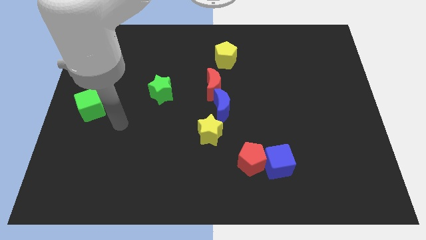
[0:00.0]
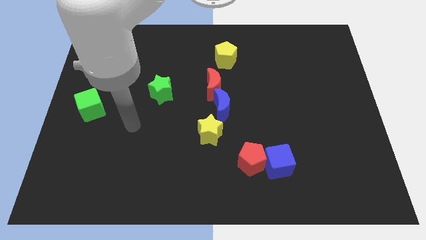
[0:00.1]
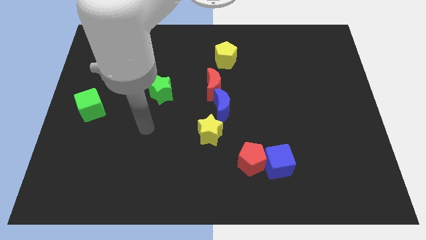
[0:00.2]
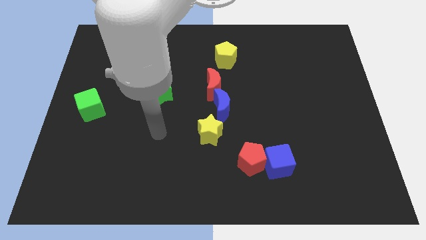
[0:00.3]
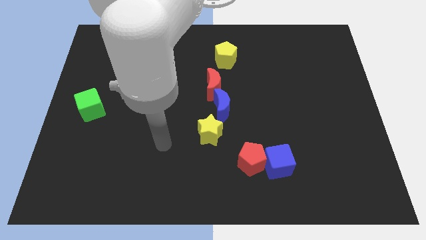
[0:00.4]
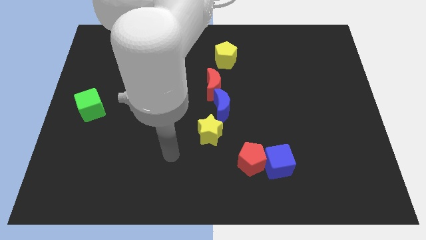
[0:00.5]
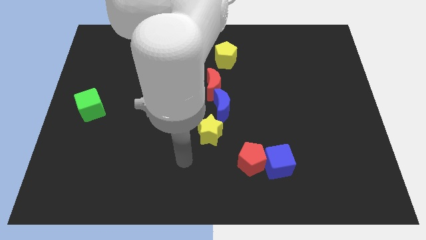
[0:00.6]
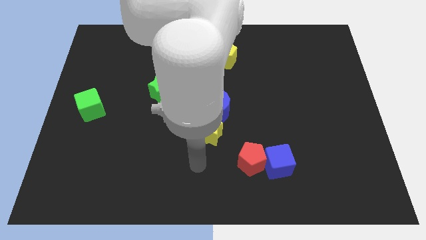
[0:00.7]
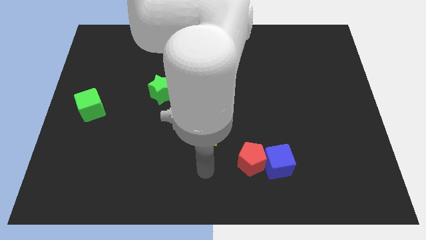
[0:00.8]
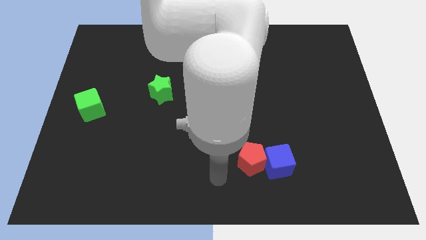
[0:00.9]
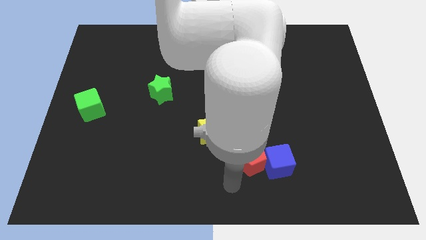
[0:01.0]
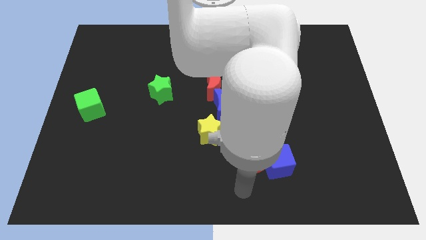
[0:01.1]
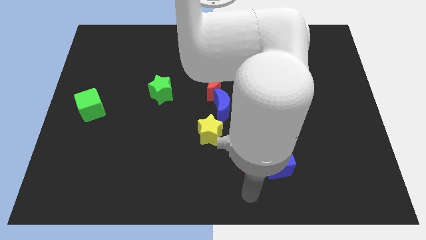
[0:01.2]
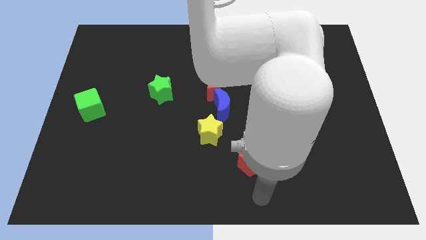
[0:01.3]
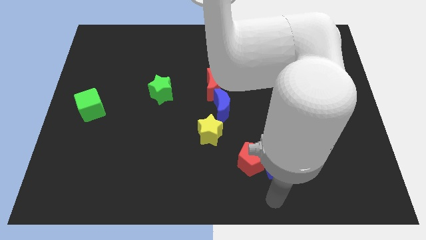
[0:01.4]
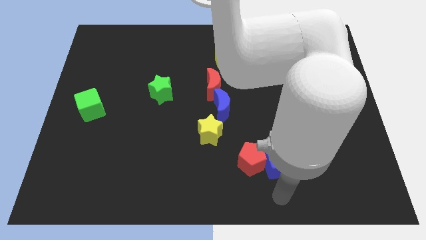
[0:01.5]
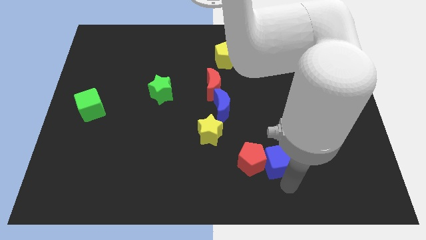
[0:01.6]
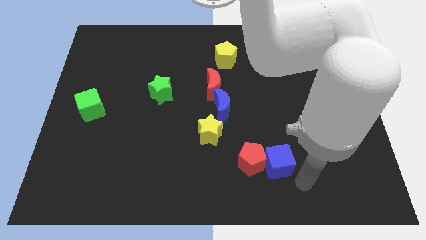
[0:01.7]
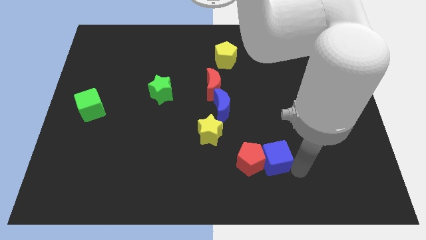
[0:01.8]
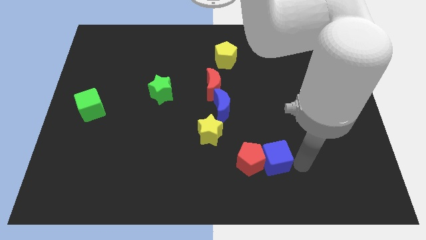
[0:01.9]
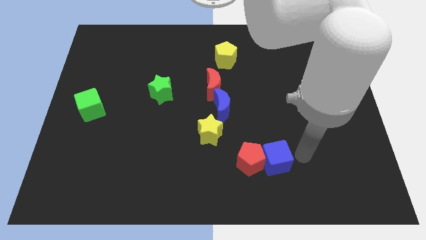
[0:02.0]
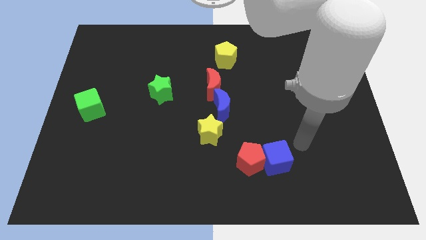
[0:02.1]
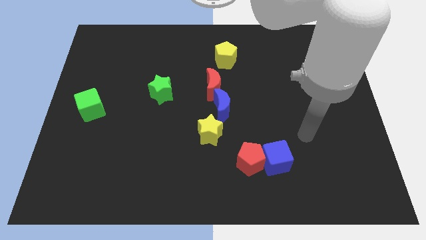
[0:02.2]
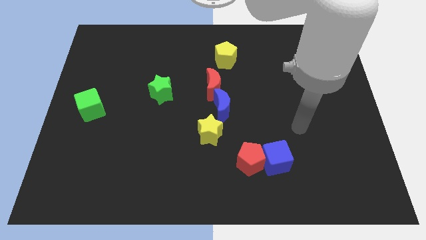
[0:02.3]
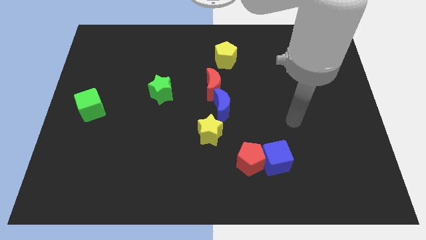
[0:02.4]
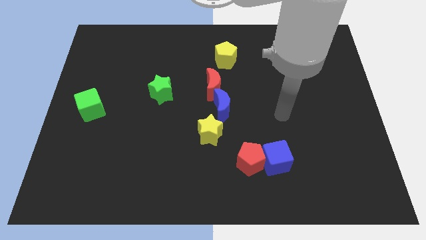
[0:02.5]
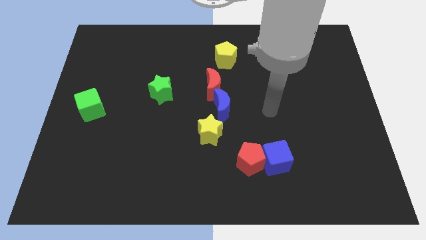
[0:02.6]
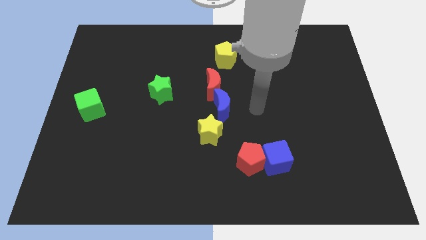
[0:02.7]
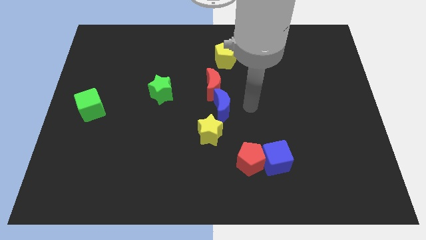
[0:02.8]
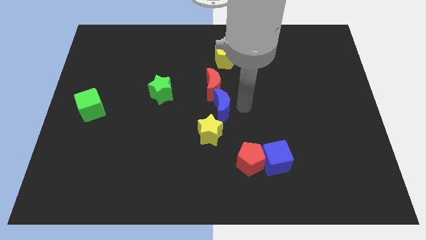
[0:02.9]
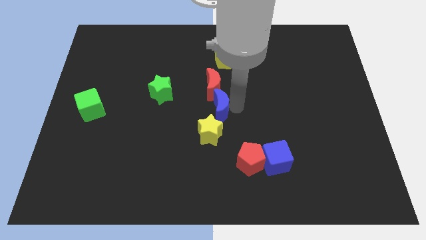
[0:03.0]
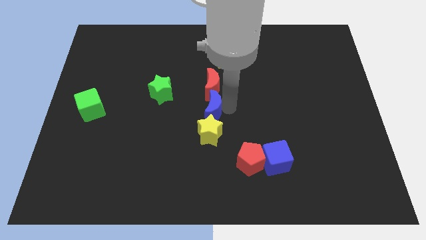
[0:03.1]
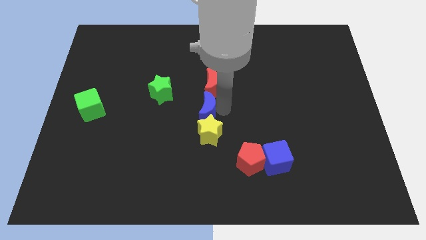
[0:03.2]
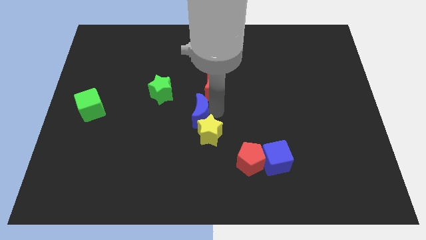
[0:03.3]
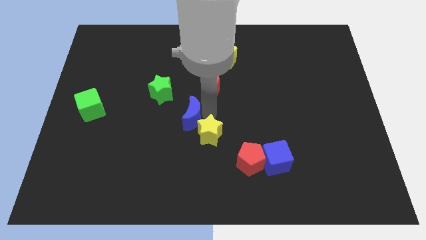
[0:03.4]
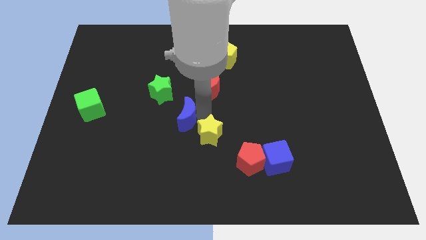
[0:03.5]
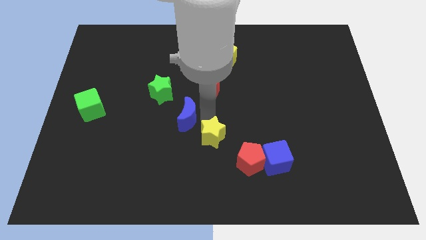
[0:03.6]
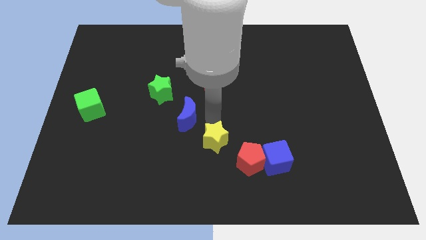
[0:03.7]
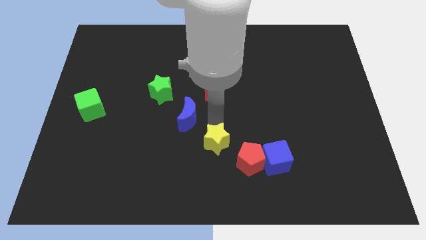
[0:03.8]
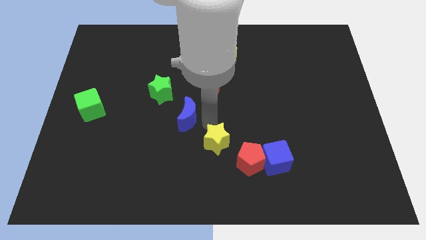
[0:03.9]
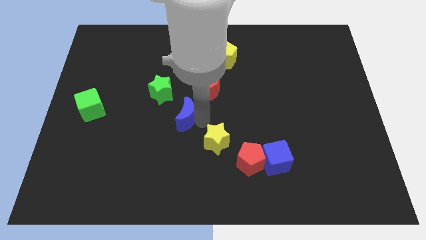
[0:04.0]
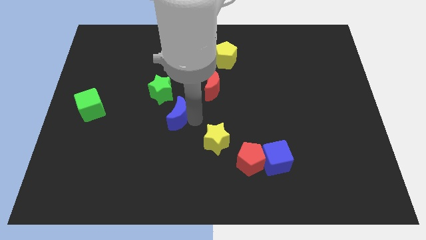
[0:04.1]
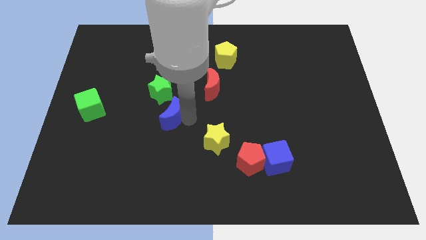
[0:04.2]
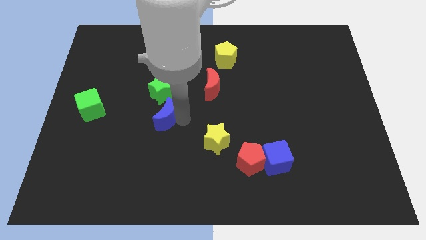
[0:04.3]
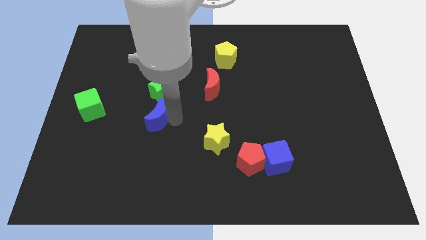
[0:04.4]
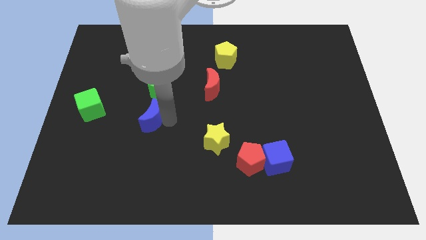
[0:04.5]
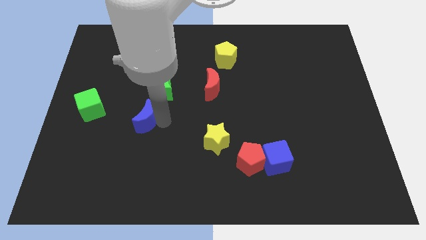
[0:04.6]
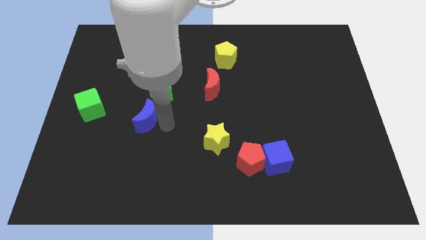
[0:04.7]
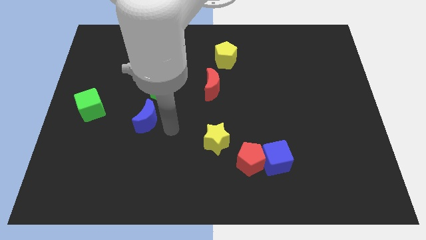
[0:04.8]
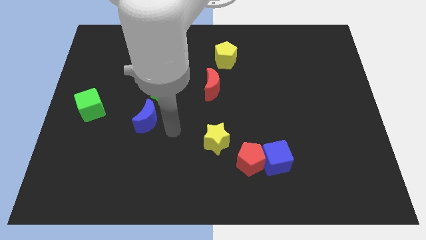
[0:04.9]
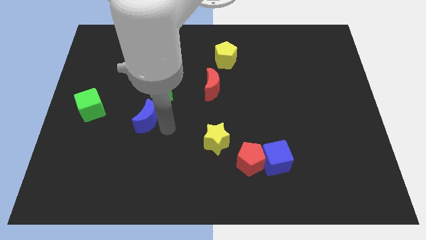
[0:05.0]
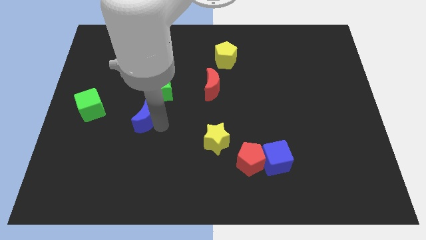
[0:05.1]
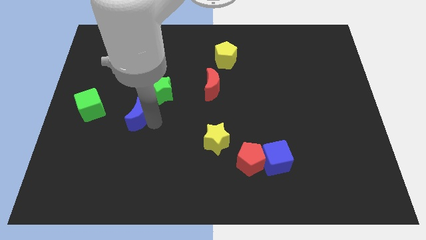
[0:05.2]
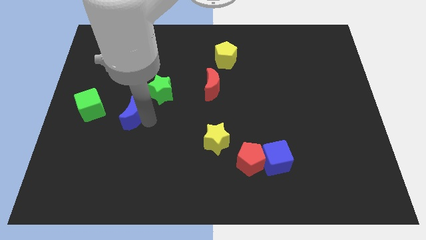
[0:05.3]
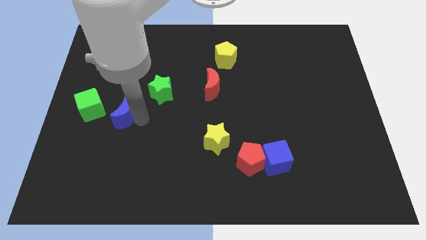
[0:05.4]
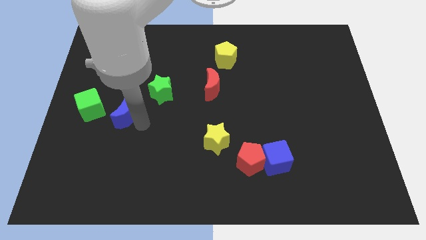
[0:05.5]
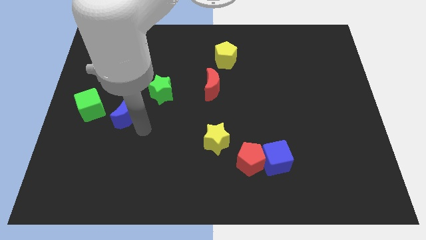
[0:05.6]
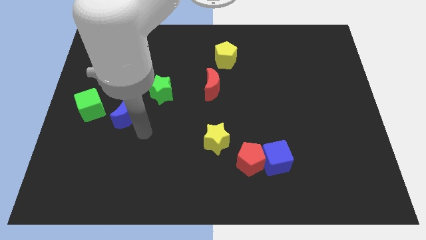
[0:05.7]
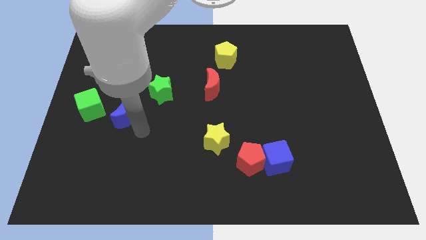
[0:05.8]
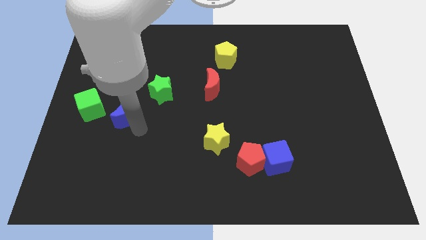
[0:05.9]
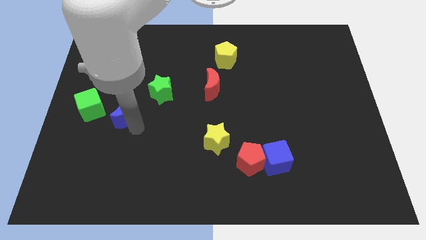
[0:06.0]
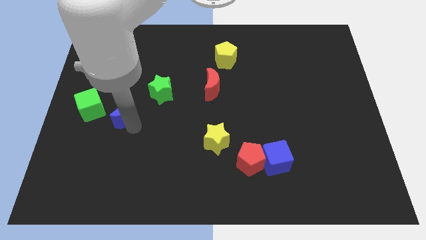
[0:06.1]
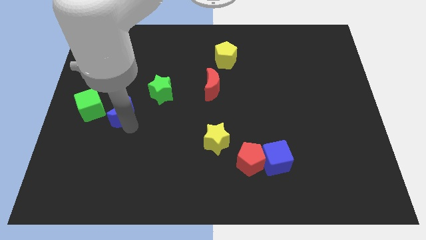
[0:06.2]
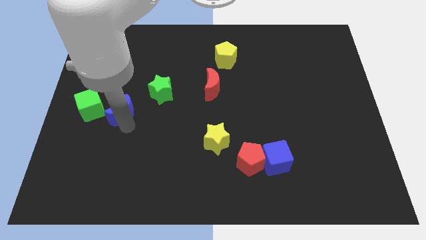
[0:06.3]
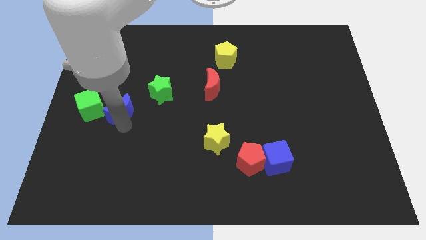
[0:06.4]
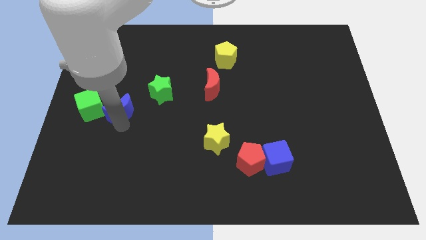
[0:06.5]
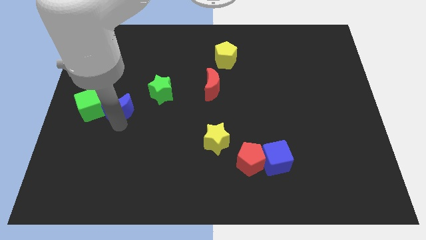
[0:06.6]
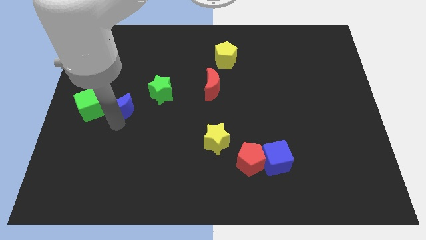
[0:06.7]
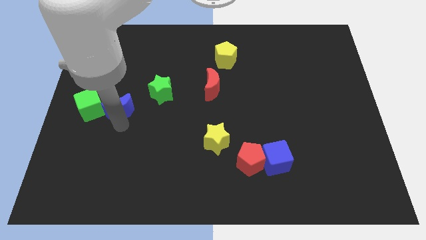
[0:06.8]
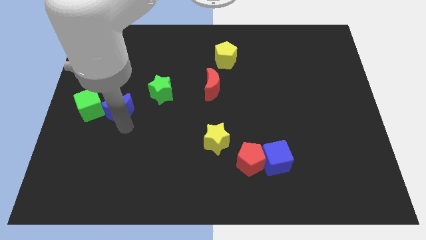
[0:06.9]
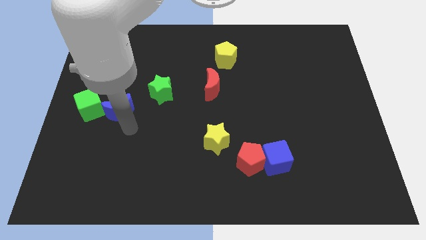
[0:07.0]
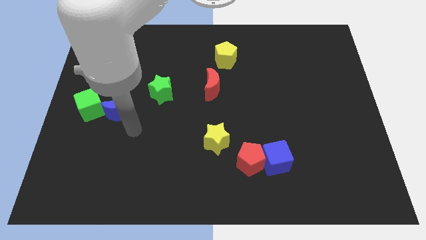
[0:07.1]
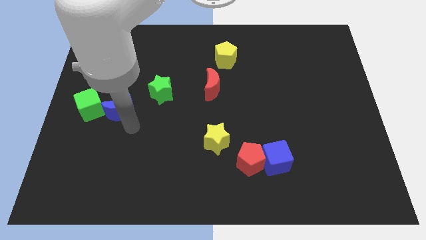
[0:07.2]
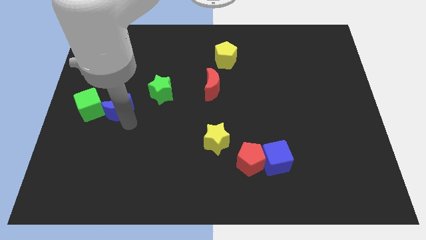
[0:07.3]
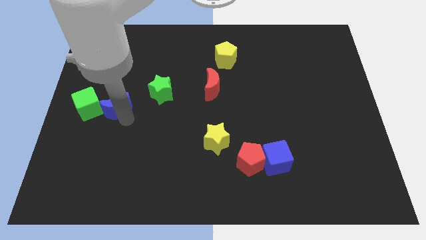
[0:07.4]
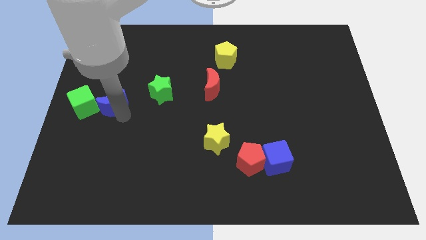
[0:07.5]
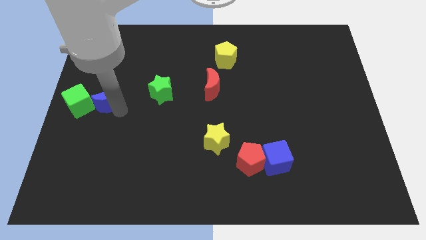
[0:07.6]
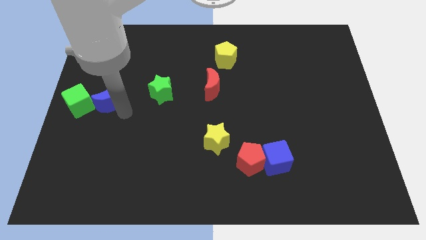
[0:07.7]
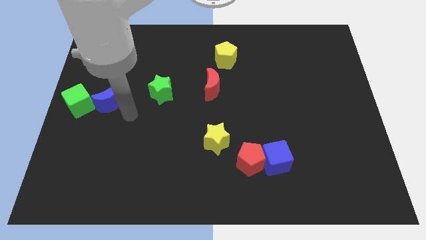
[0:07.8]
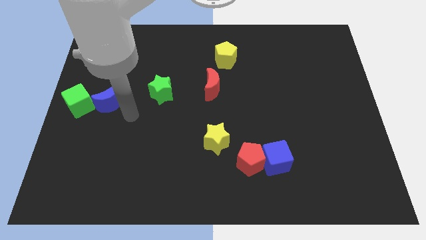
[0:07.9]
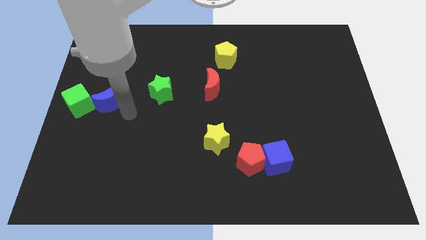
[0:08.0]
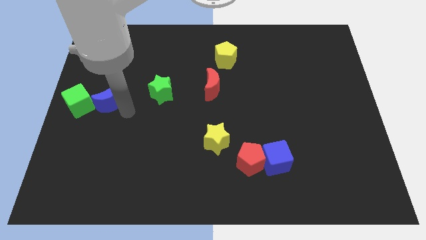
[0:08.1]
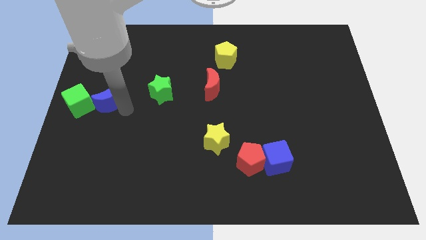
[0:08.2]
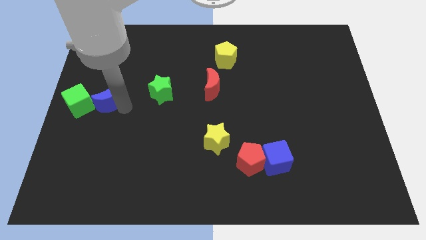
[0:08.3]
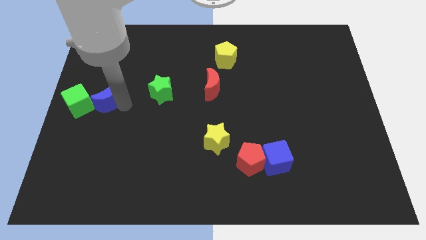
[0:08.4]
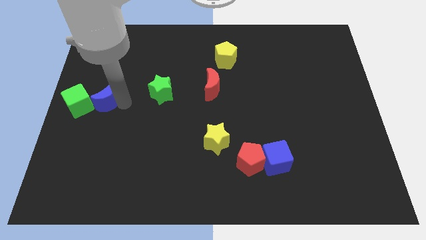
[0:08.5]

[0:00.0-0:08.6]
push the blue moon to the center left
